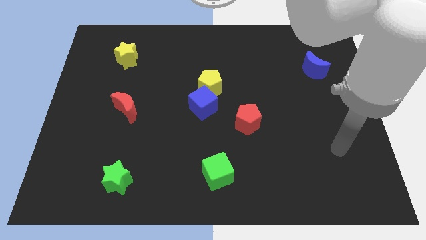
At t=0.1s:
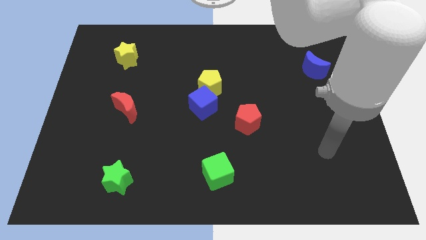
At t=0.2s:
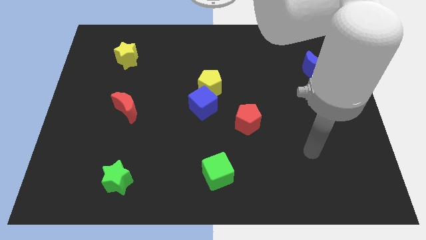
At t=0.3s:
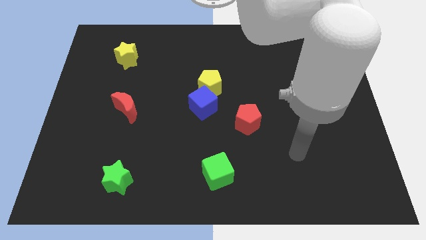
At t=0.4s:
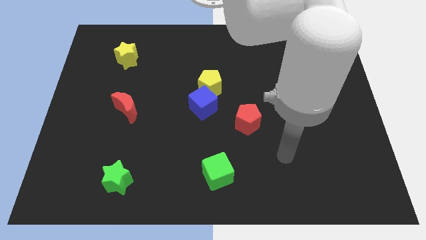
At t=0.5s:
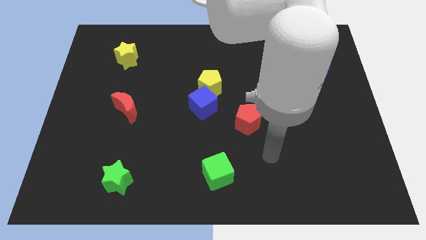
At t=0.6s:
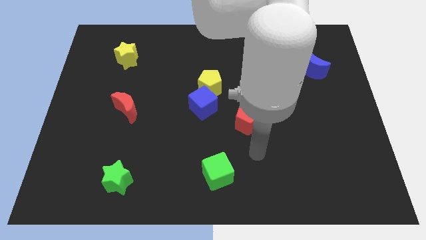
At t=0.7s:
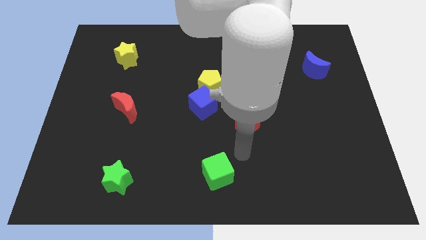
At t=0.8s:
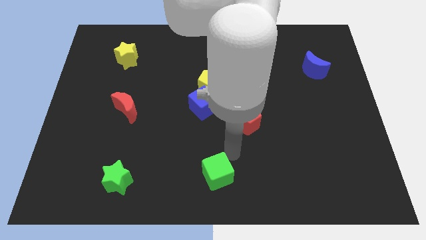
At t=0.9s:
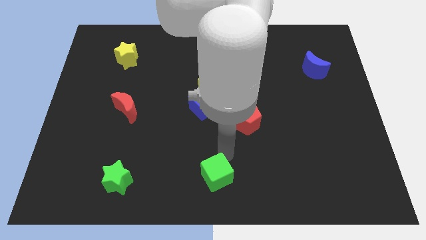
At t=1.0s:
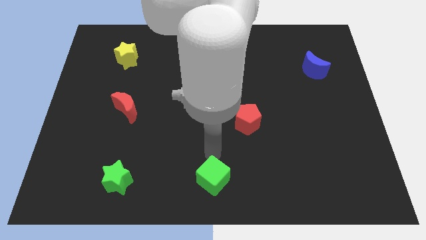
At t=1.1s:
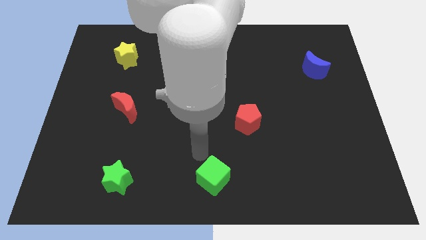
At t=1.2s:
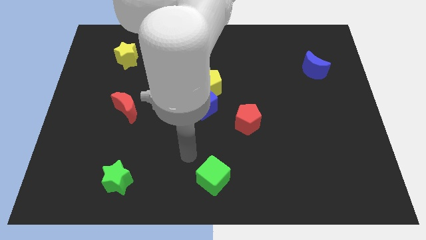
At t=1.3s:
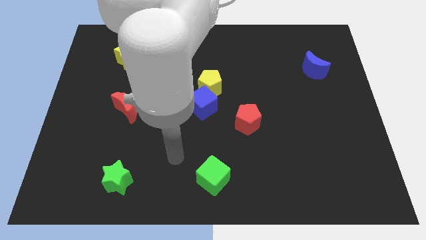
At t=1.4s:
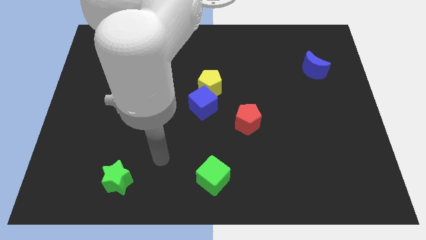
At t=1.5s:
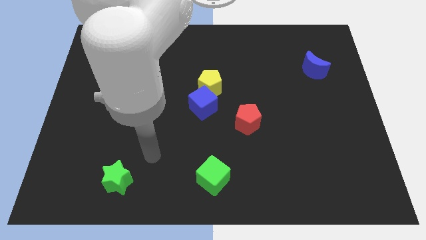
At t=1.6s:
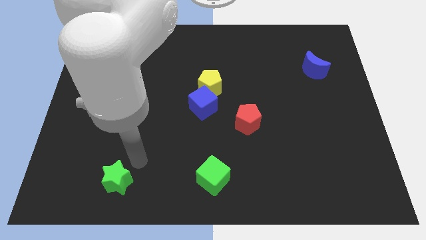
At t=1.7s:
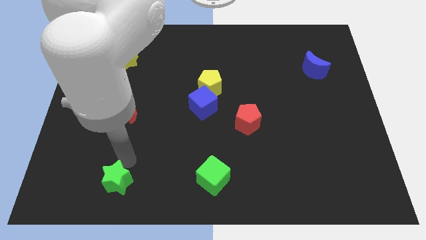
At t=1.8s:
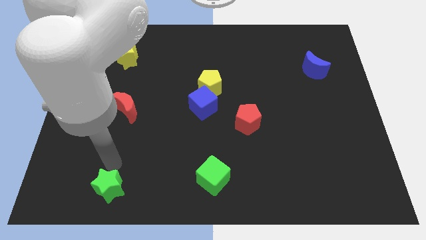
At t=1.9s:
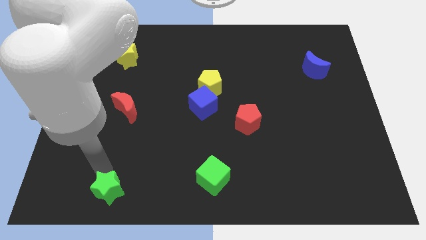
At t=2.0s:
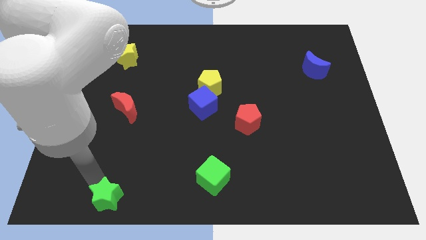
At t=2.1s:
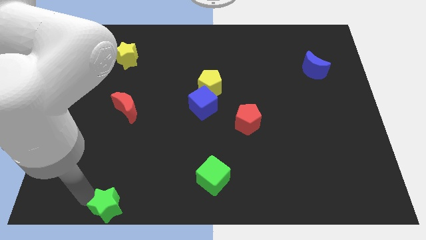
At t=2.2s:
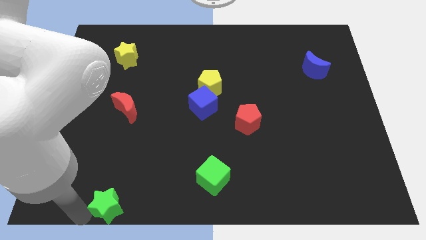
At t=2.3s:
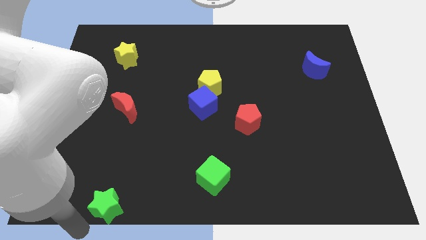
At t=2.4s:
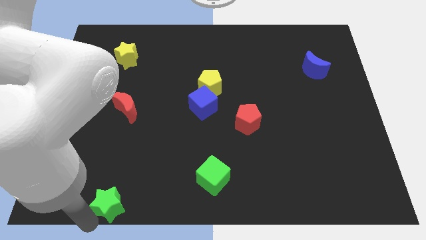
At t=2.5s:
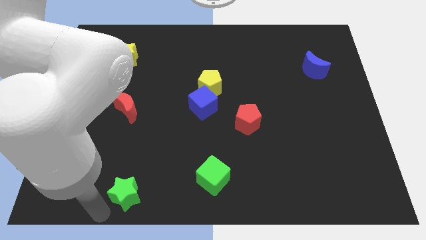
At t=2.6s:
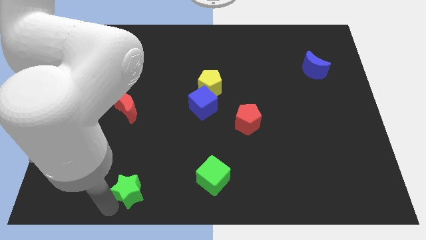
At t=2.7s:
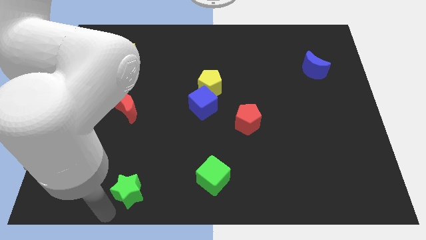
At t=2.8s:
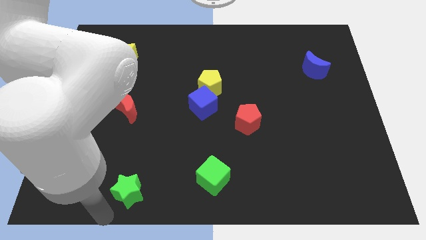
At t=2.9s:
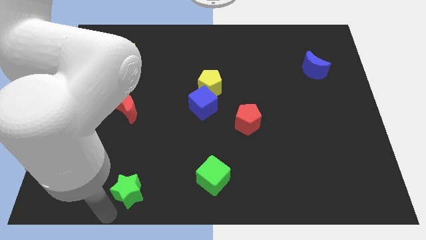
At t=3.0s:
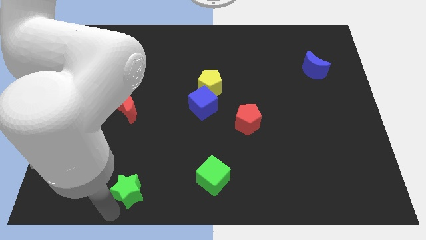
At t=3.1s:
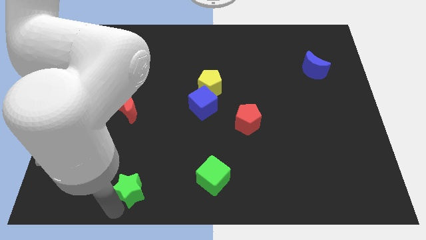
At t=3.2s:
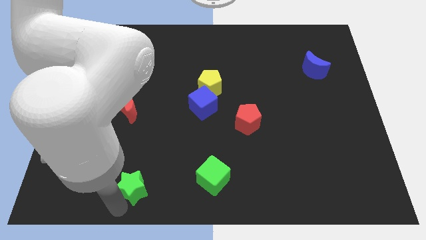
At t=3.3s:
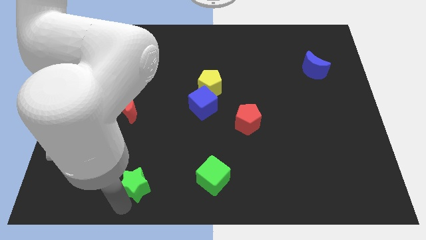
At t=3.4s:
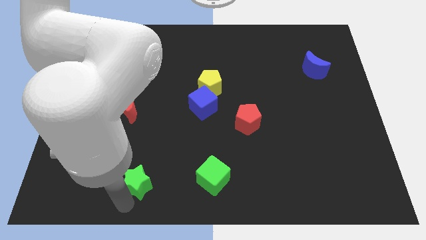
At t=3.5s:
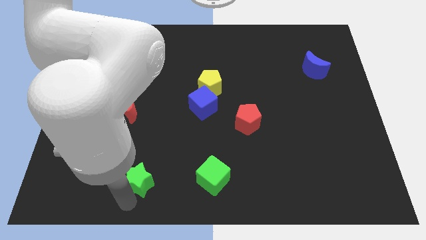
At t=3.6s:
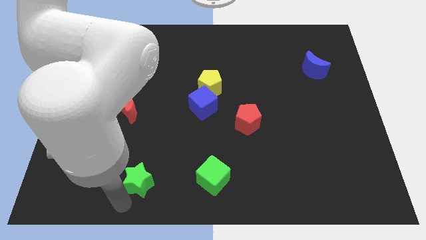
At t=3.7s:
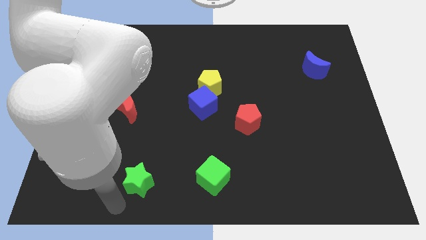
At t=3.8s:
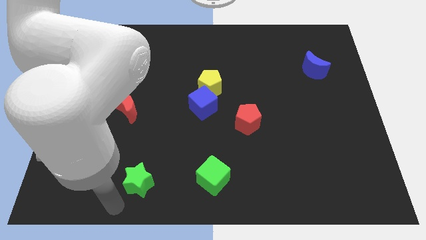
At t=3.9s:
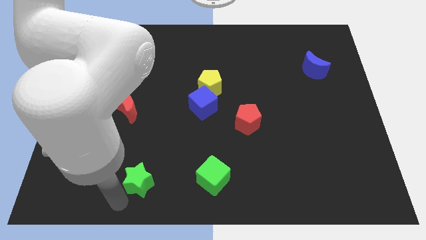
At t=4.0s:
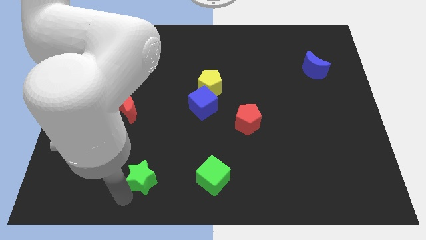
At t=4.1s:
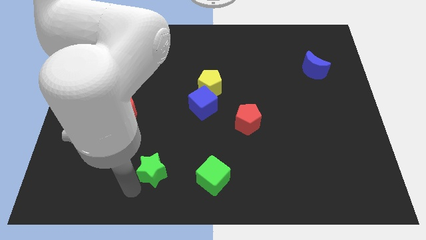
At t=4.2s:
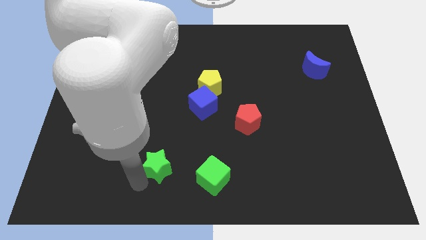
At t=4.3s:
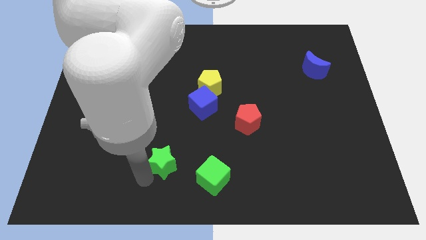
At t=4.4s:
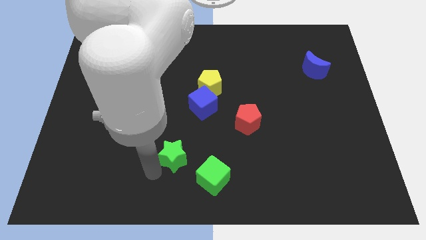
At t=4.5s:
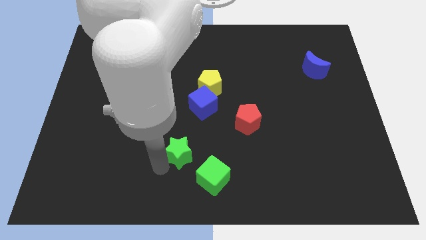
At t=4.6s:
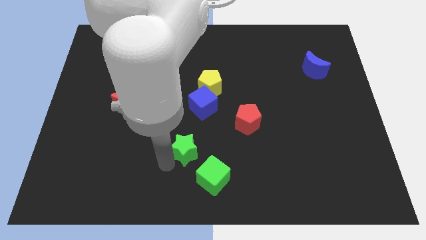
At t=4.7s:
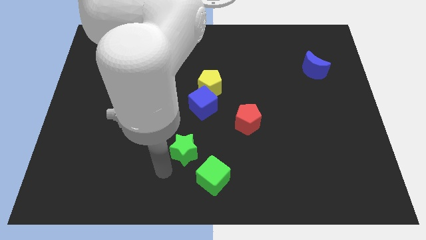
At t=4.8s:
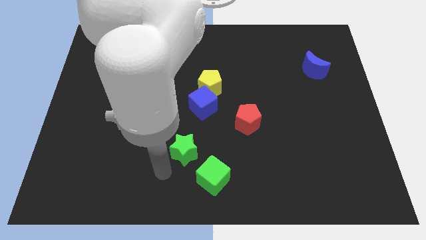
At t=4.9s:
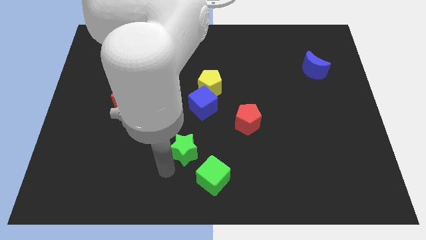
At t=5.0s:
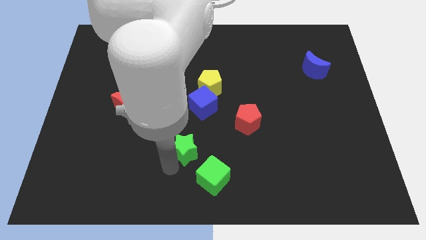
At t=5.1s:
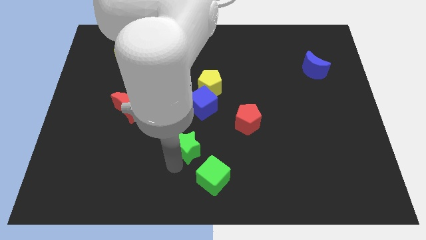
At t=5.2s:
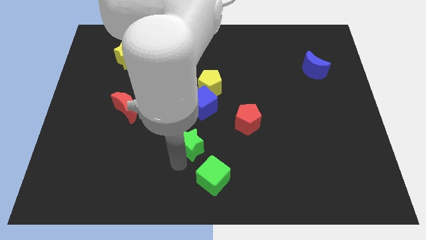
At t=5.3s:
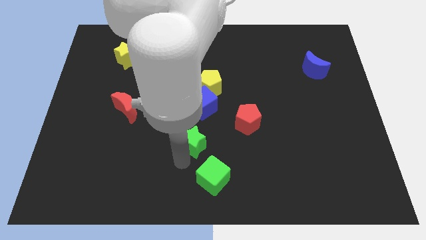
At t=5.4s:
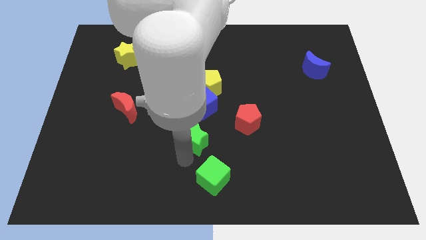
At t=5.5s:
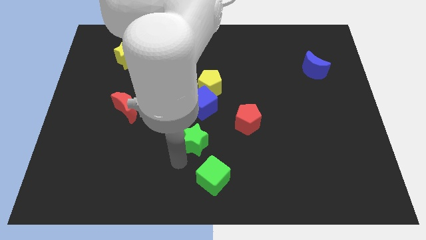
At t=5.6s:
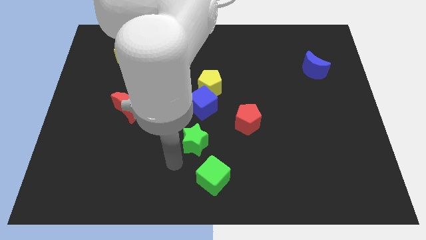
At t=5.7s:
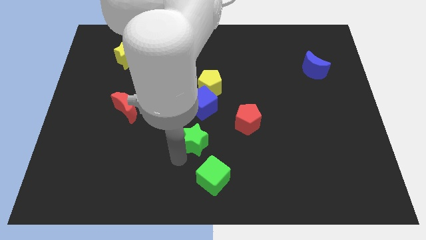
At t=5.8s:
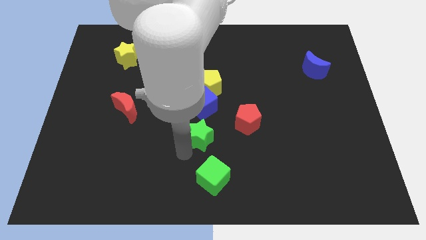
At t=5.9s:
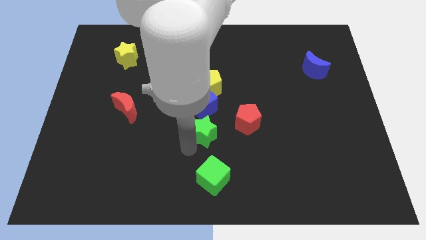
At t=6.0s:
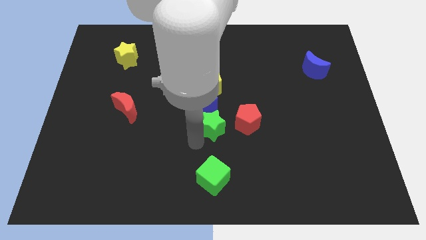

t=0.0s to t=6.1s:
slide the green star up and then right

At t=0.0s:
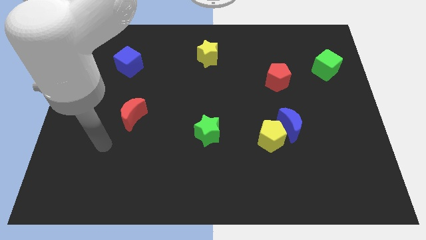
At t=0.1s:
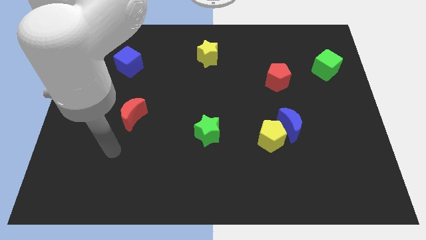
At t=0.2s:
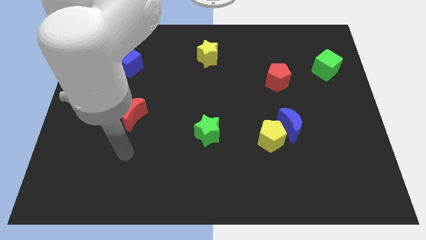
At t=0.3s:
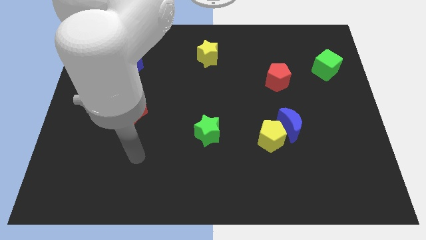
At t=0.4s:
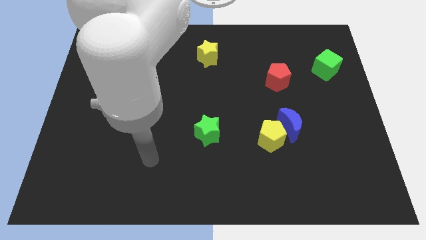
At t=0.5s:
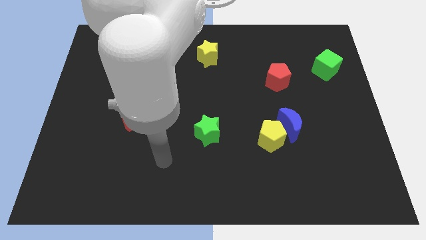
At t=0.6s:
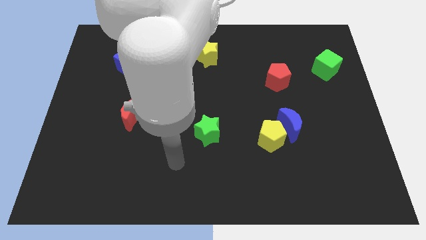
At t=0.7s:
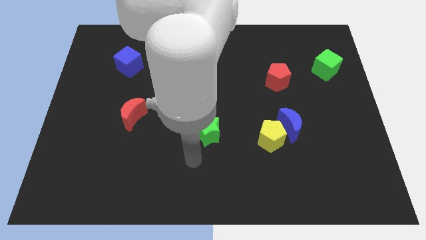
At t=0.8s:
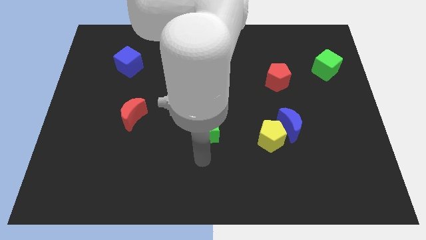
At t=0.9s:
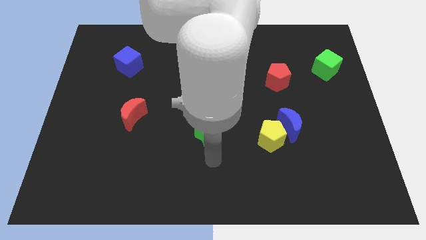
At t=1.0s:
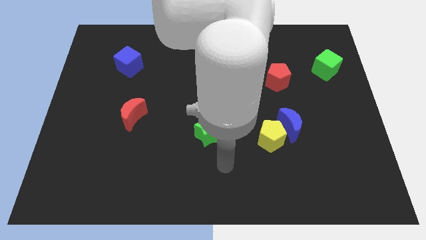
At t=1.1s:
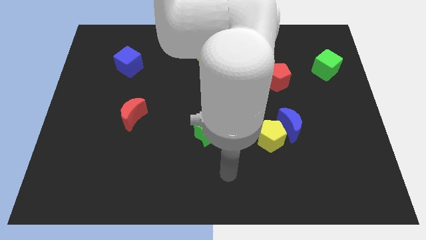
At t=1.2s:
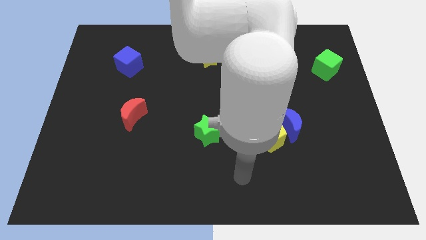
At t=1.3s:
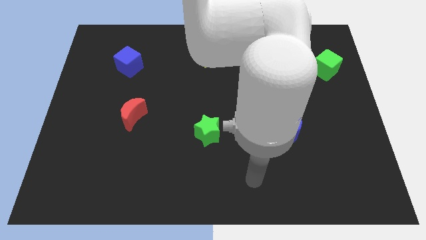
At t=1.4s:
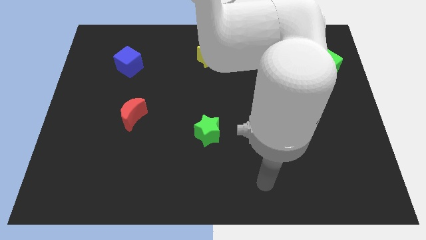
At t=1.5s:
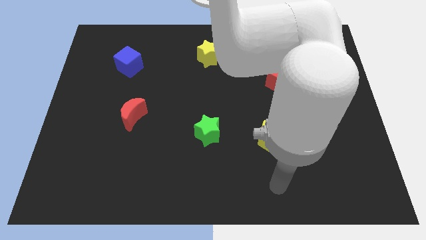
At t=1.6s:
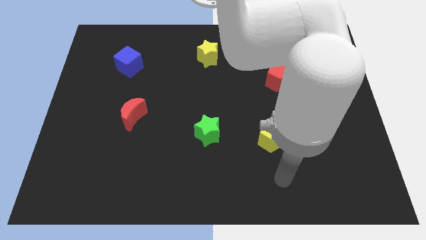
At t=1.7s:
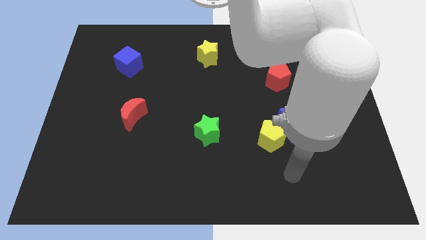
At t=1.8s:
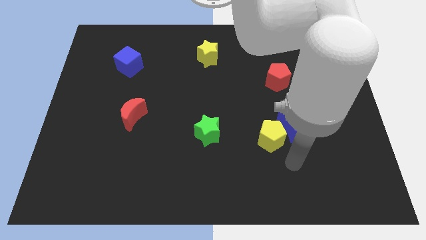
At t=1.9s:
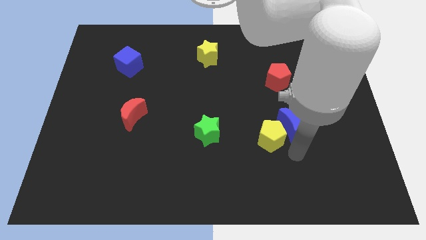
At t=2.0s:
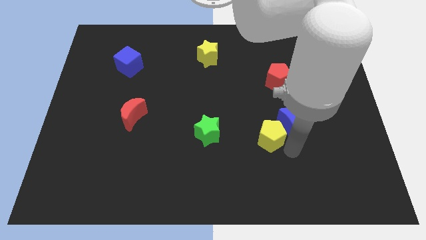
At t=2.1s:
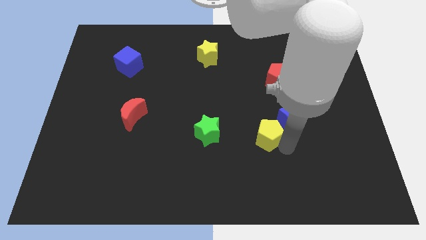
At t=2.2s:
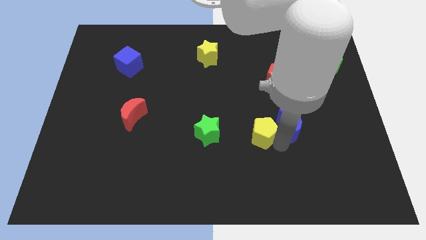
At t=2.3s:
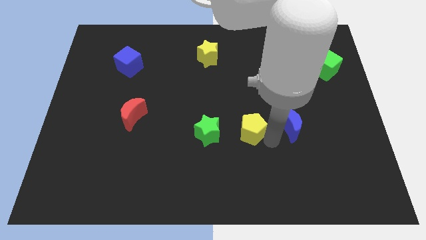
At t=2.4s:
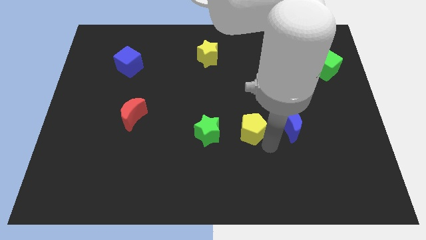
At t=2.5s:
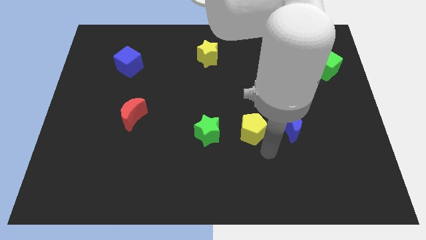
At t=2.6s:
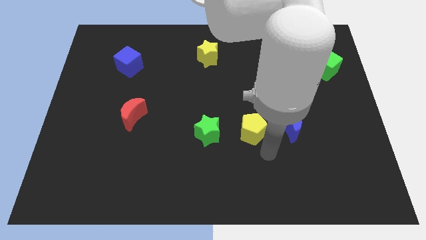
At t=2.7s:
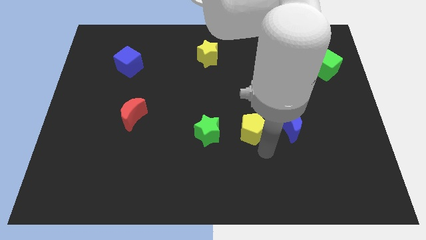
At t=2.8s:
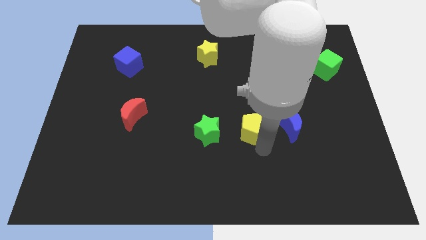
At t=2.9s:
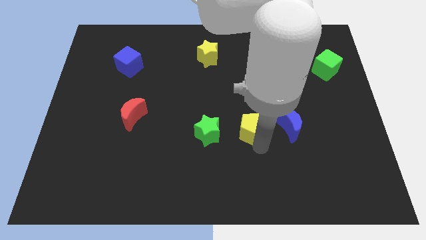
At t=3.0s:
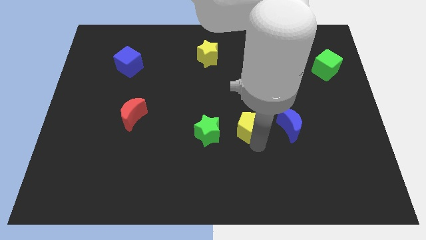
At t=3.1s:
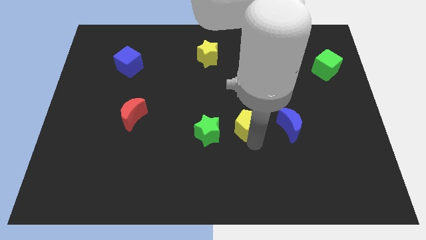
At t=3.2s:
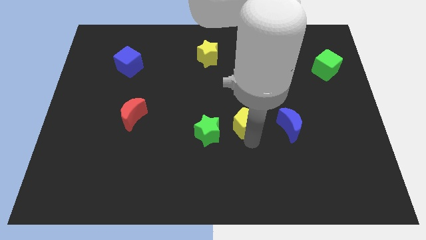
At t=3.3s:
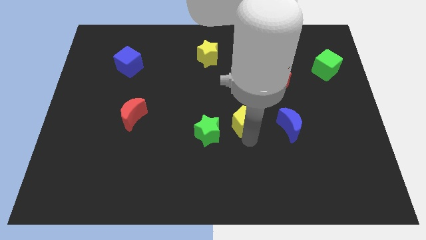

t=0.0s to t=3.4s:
move the yellow pentagon upwards and to the left a little bit
